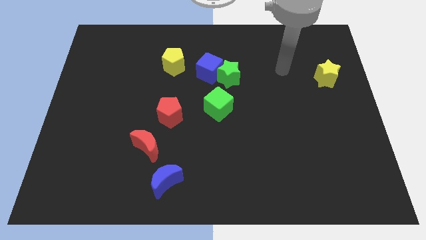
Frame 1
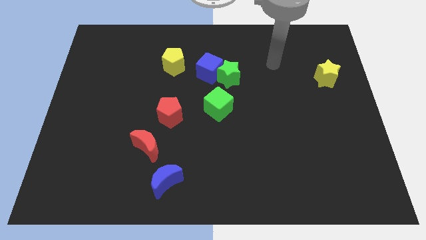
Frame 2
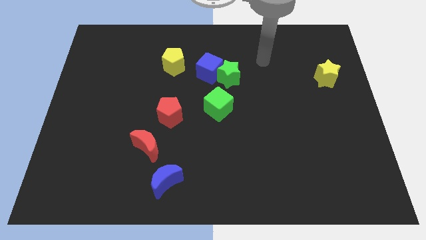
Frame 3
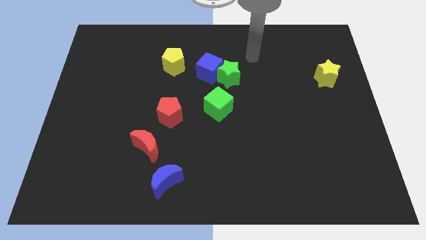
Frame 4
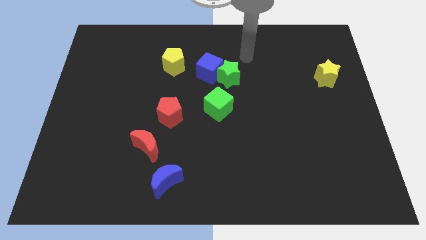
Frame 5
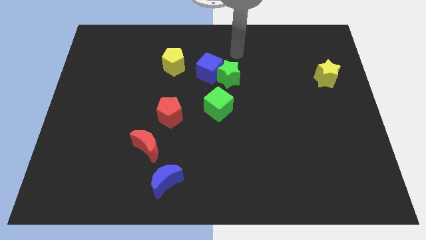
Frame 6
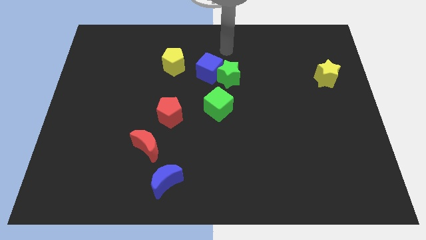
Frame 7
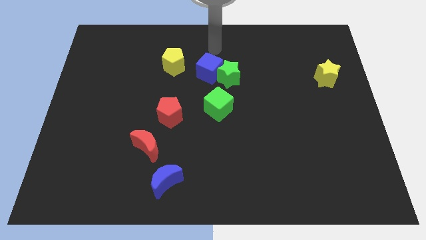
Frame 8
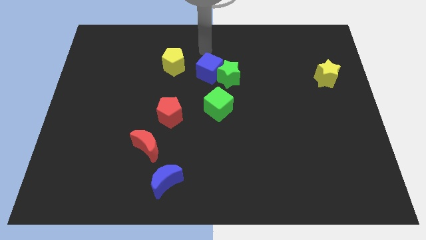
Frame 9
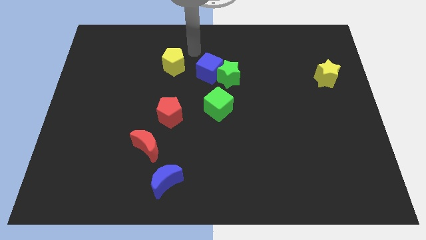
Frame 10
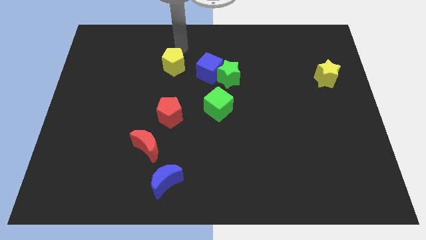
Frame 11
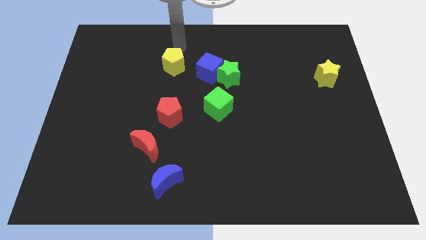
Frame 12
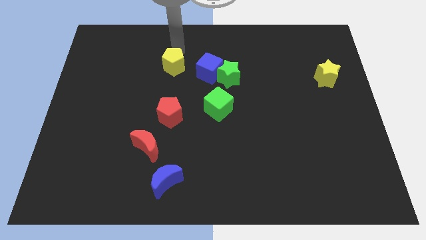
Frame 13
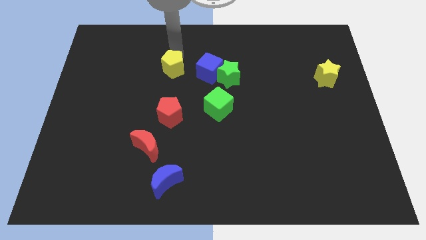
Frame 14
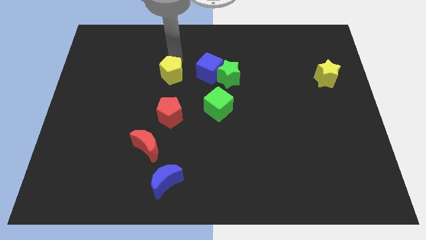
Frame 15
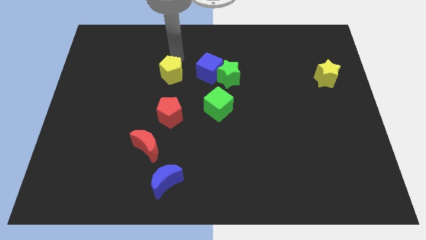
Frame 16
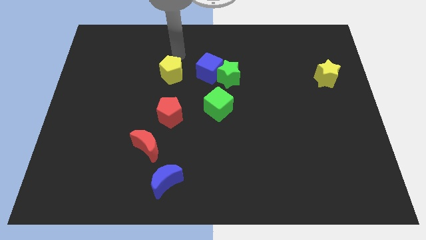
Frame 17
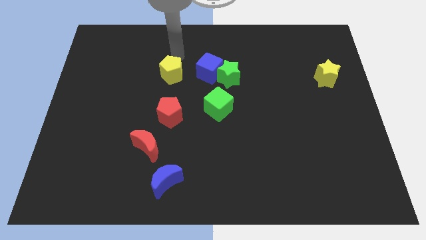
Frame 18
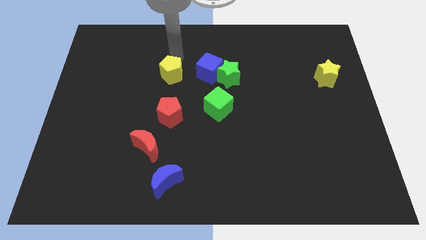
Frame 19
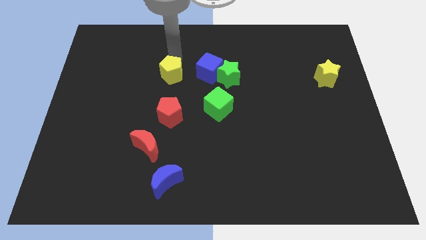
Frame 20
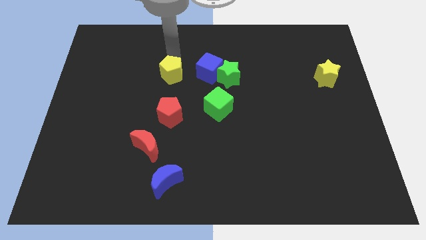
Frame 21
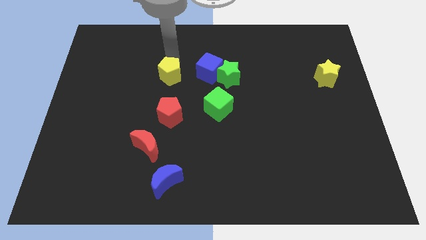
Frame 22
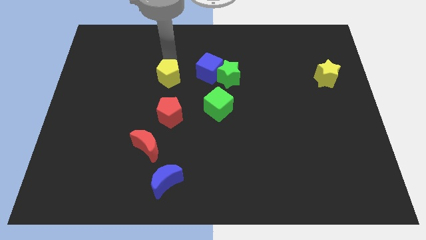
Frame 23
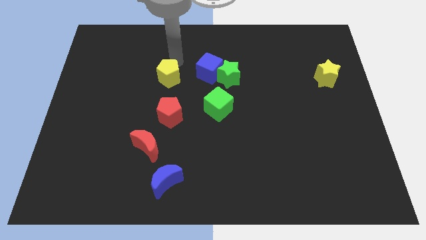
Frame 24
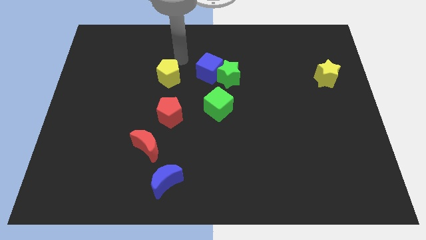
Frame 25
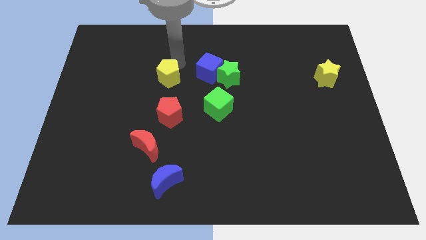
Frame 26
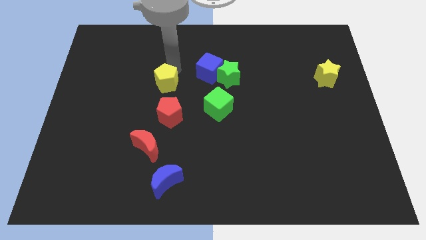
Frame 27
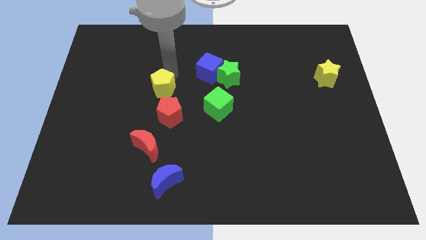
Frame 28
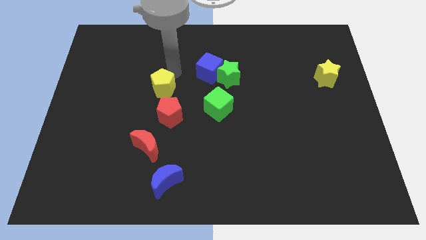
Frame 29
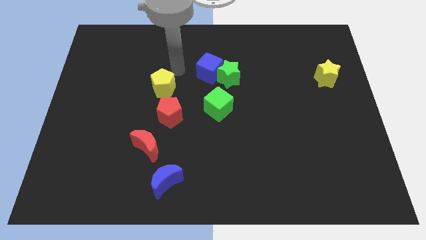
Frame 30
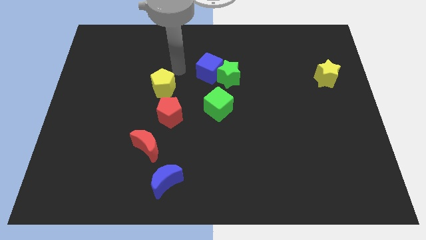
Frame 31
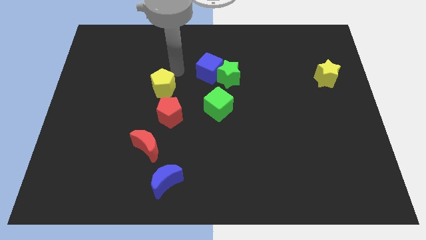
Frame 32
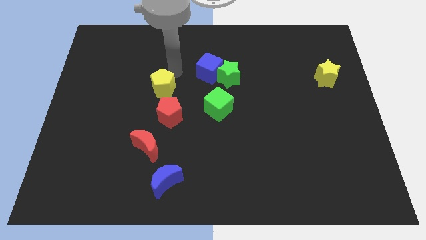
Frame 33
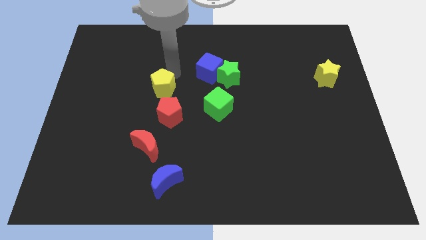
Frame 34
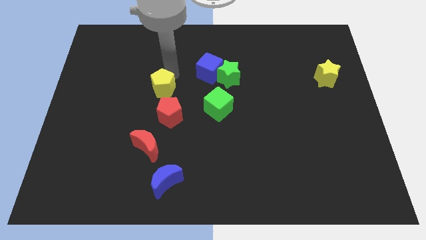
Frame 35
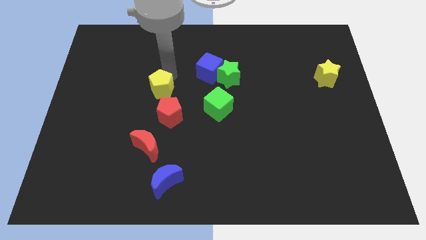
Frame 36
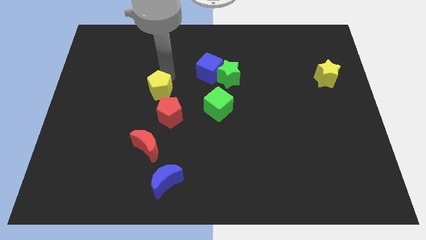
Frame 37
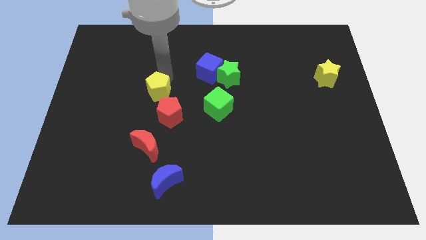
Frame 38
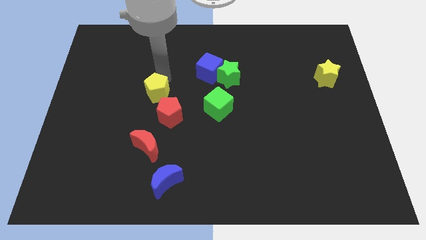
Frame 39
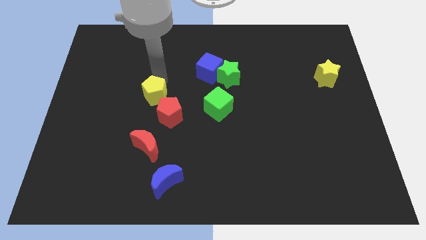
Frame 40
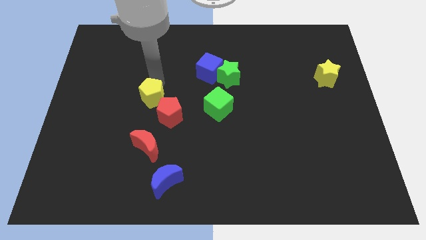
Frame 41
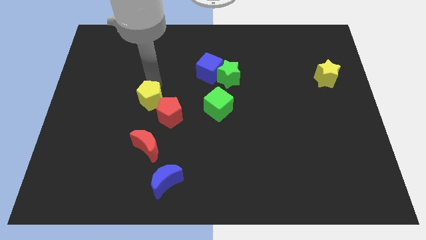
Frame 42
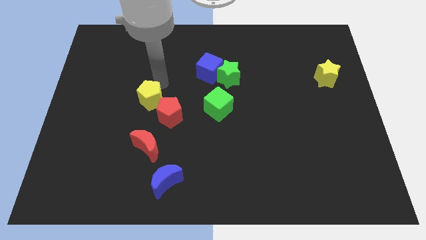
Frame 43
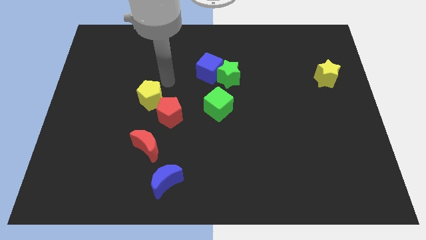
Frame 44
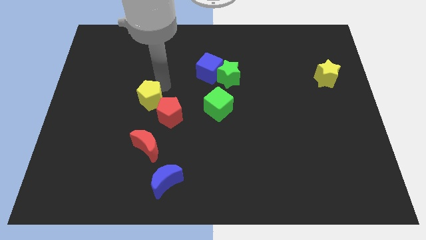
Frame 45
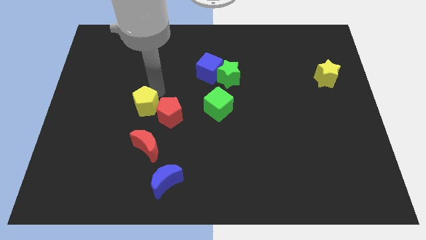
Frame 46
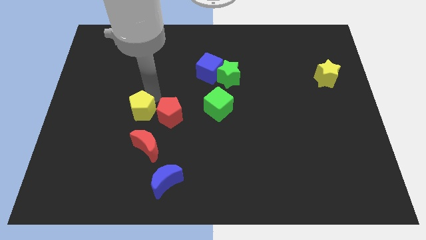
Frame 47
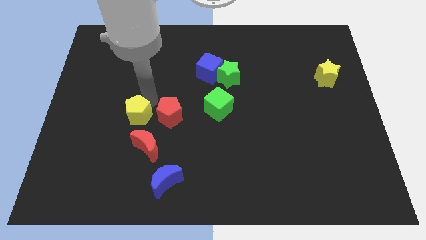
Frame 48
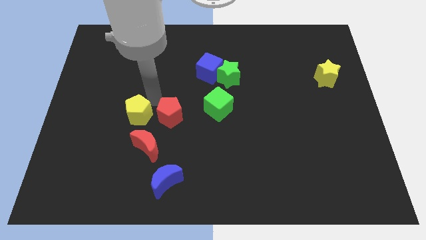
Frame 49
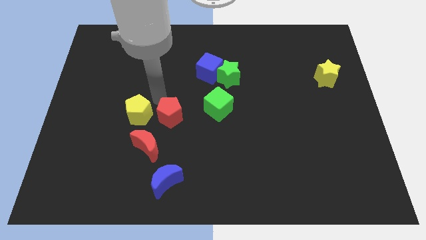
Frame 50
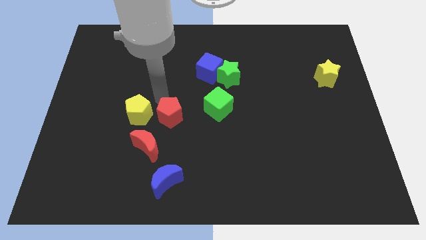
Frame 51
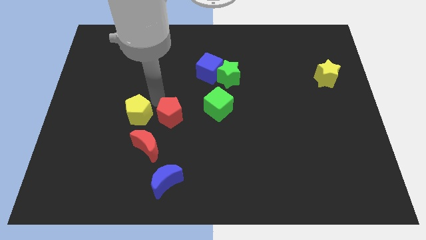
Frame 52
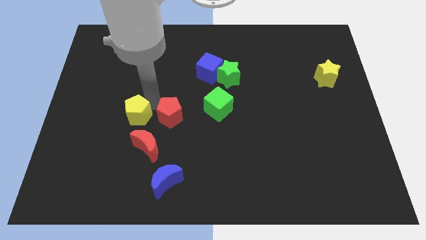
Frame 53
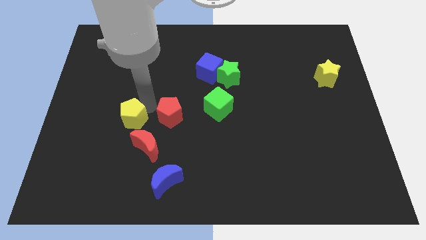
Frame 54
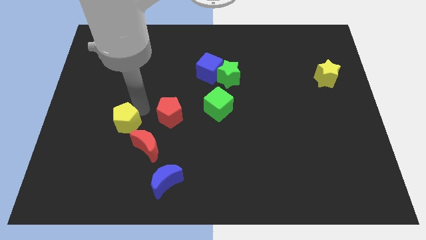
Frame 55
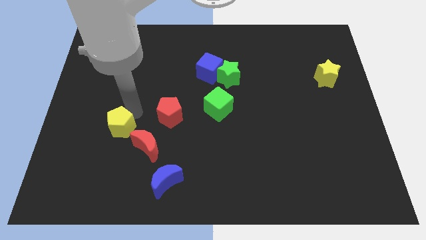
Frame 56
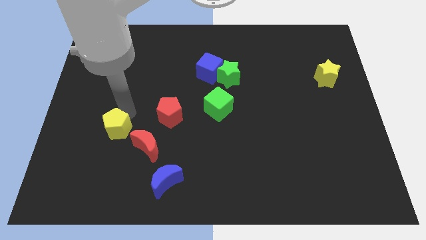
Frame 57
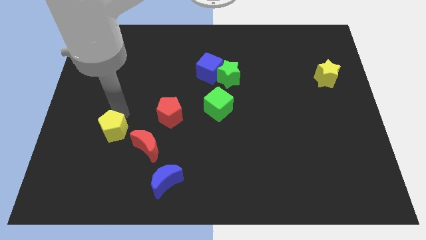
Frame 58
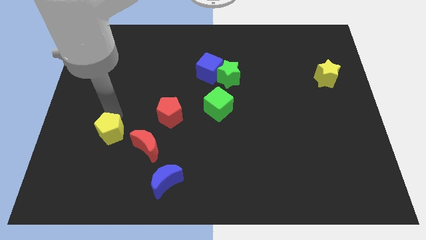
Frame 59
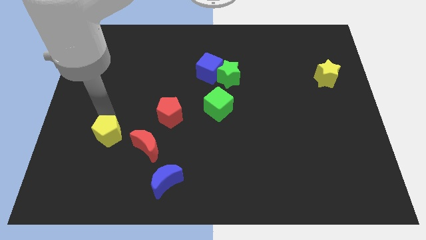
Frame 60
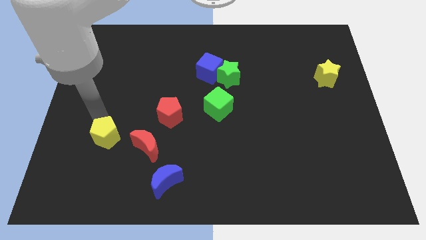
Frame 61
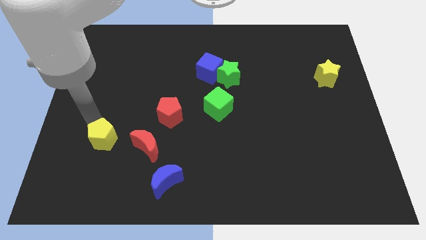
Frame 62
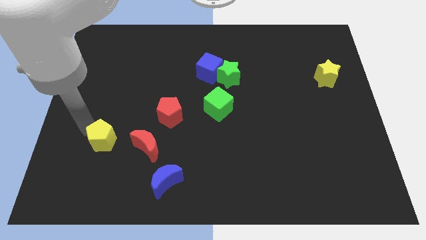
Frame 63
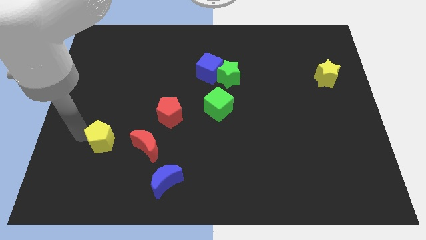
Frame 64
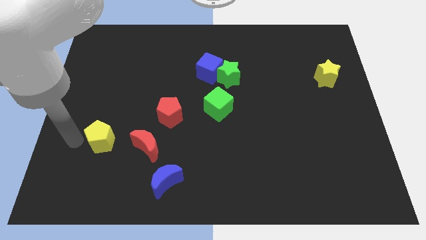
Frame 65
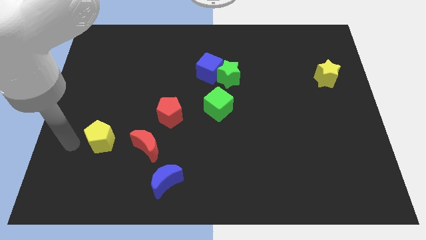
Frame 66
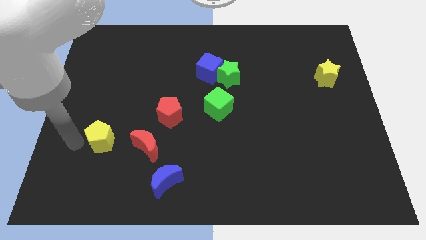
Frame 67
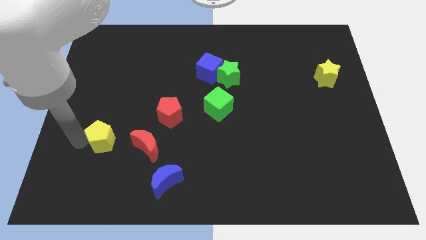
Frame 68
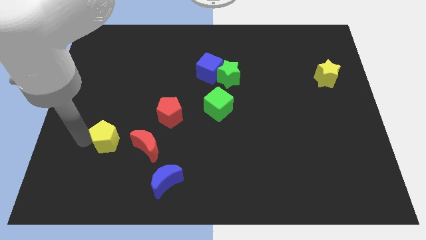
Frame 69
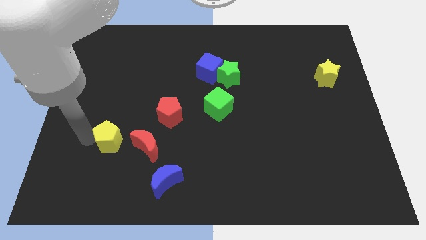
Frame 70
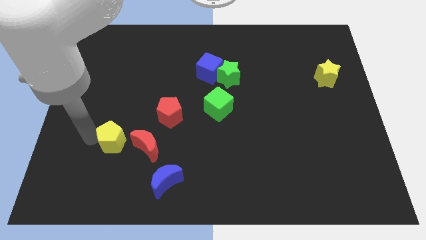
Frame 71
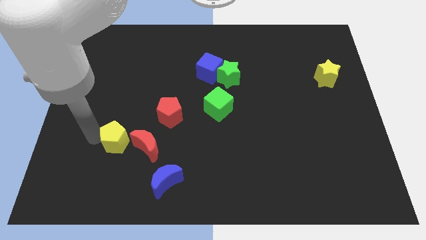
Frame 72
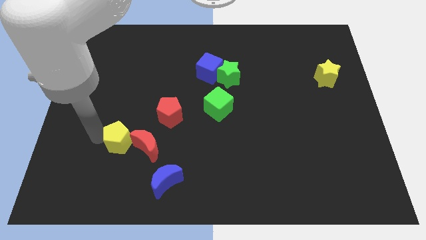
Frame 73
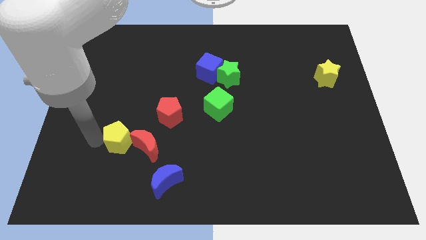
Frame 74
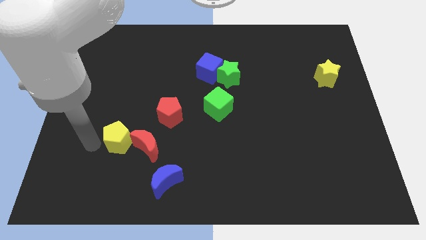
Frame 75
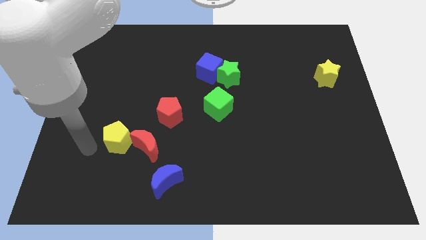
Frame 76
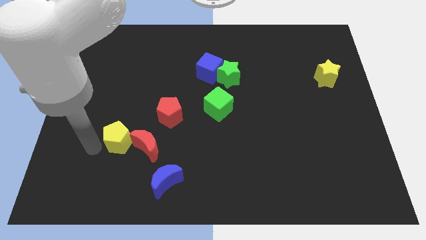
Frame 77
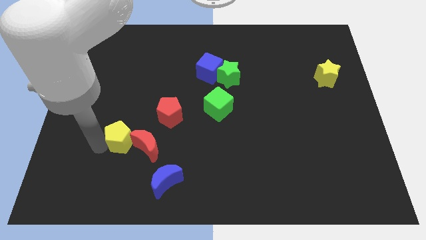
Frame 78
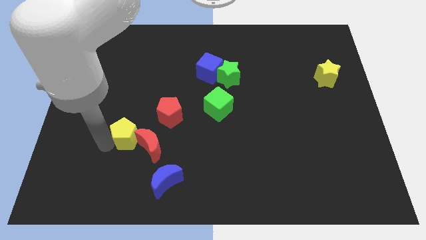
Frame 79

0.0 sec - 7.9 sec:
push the yellow pentagon to the red moon
